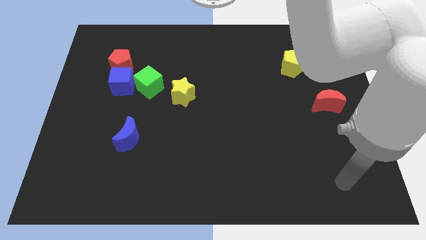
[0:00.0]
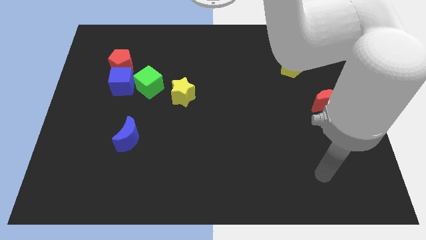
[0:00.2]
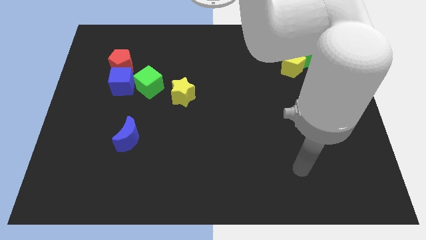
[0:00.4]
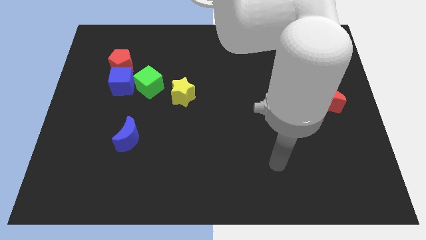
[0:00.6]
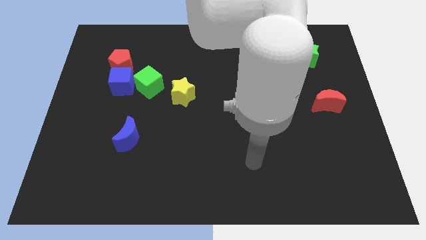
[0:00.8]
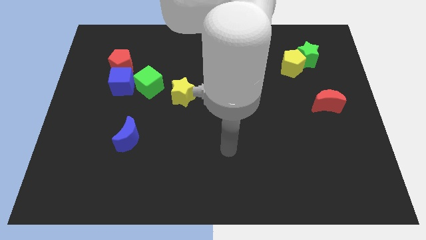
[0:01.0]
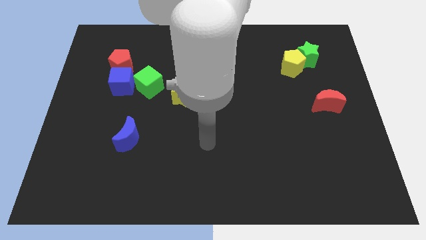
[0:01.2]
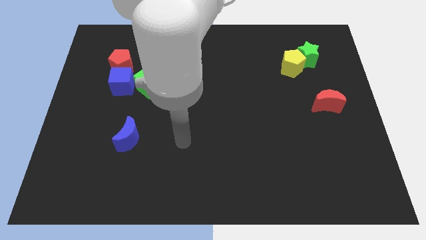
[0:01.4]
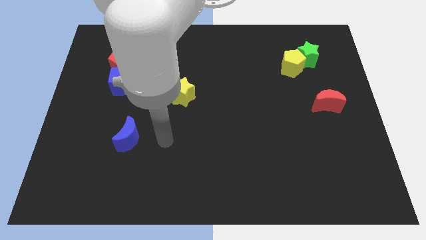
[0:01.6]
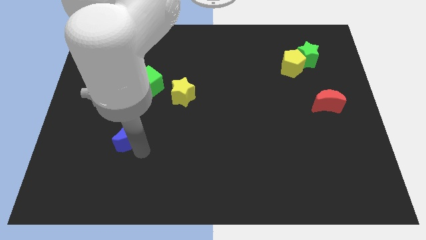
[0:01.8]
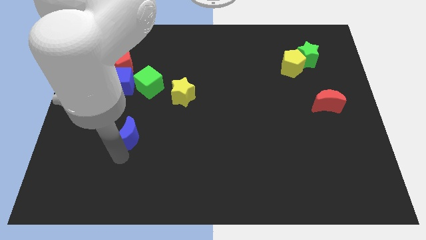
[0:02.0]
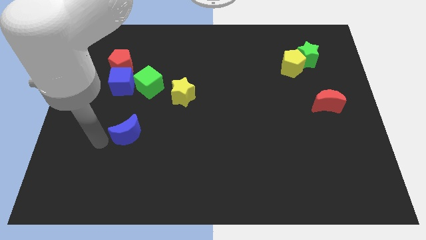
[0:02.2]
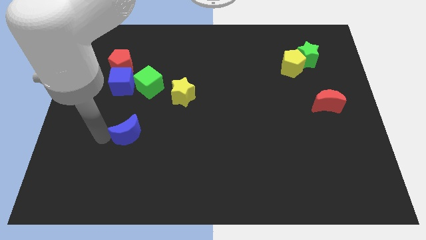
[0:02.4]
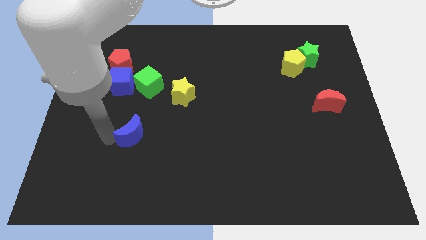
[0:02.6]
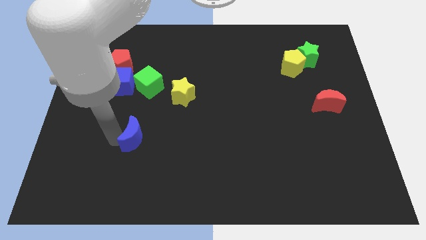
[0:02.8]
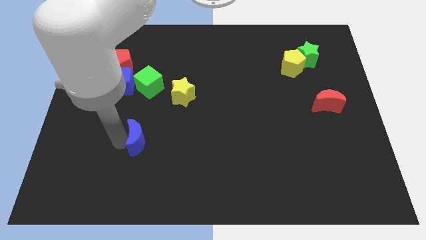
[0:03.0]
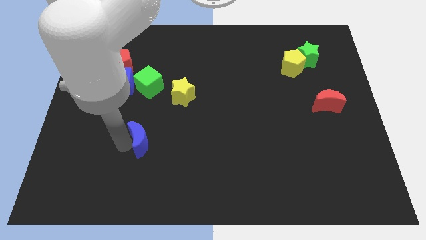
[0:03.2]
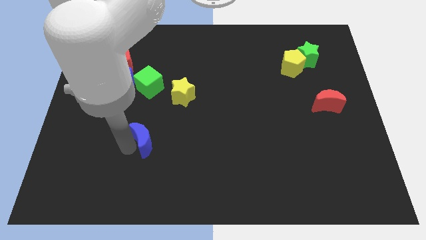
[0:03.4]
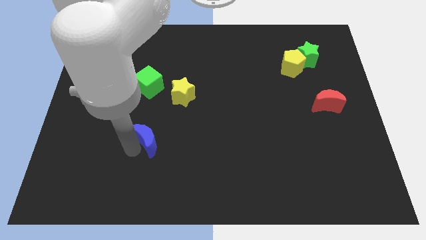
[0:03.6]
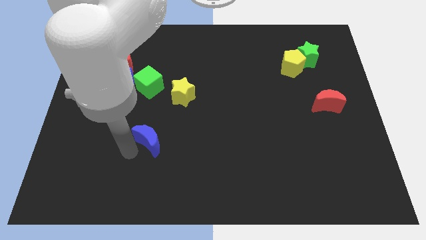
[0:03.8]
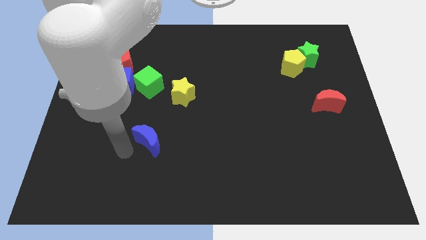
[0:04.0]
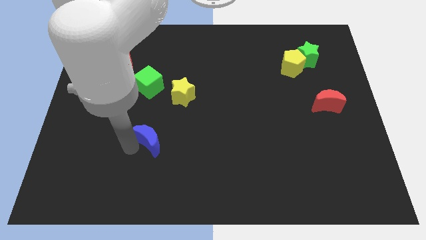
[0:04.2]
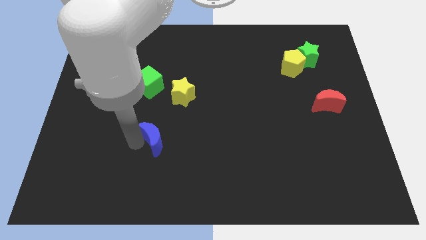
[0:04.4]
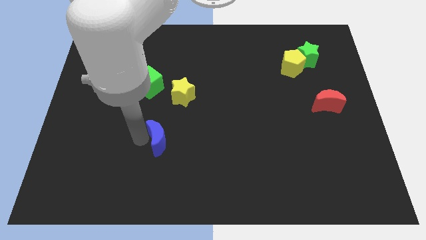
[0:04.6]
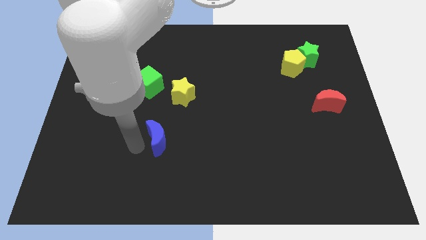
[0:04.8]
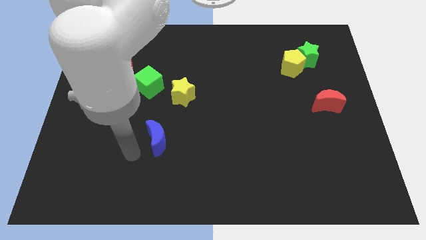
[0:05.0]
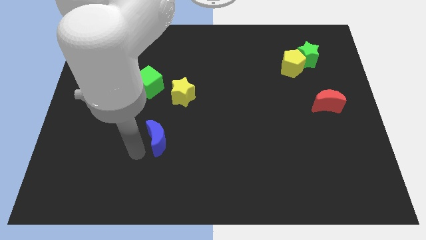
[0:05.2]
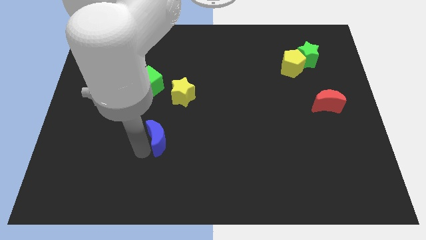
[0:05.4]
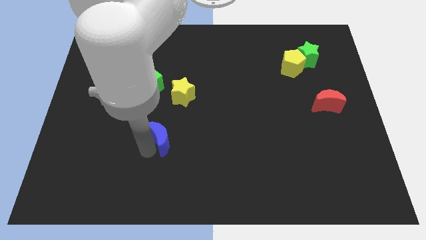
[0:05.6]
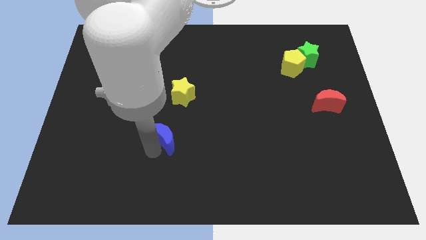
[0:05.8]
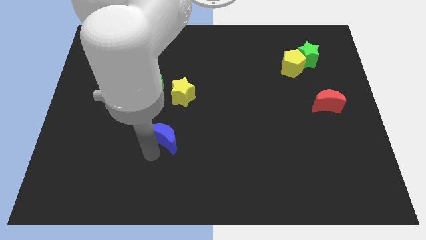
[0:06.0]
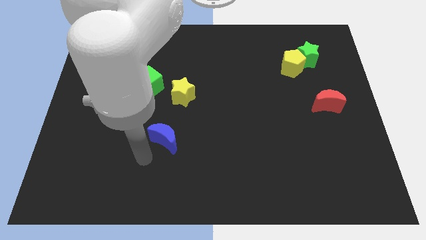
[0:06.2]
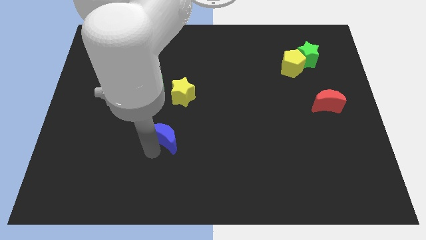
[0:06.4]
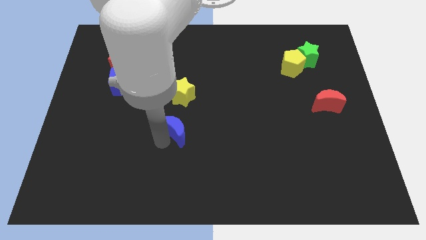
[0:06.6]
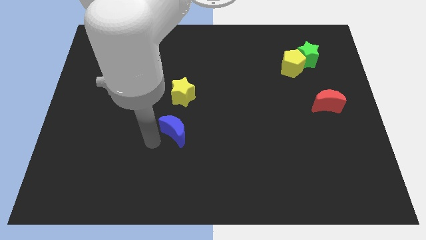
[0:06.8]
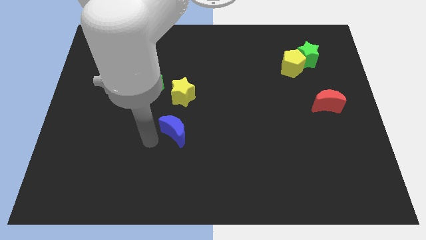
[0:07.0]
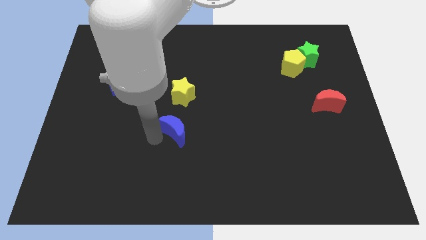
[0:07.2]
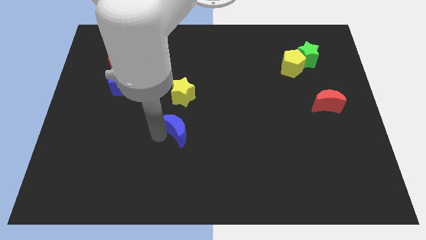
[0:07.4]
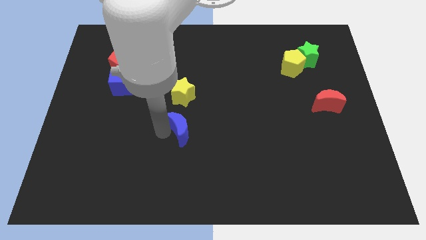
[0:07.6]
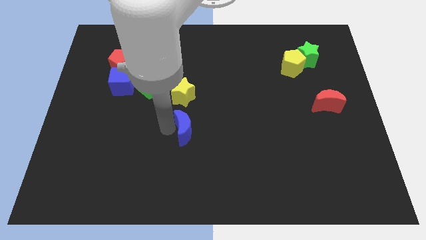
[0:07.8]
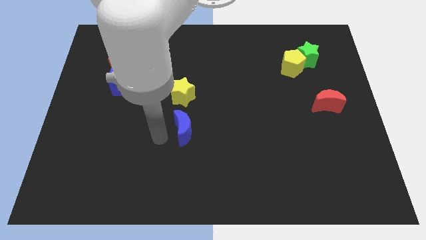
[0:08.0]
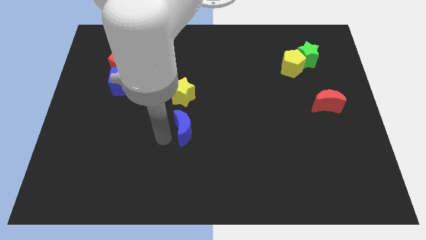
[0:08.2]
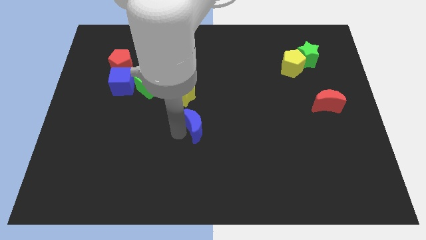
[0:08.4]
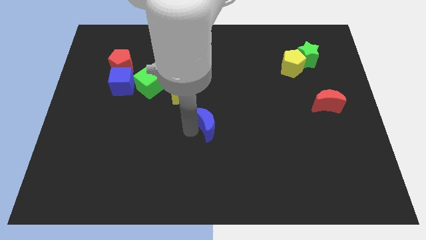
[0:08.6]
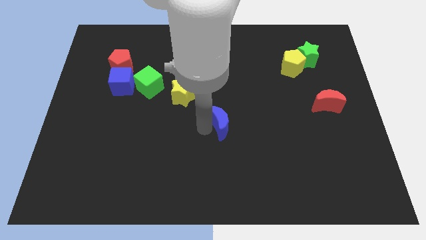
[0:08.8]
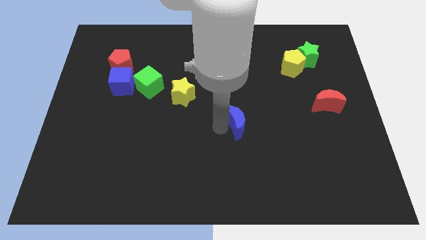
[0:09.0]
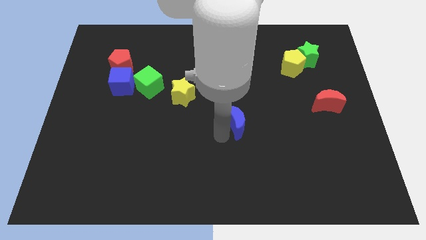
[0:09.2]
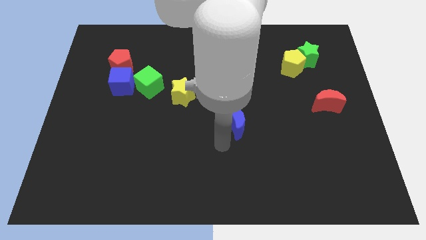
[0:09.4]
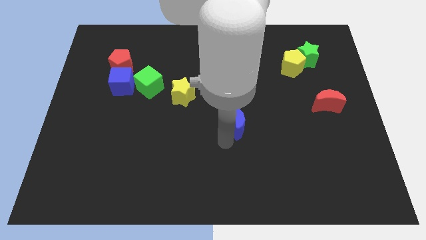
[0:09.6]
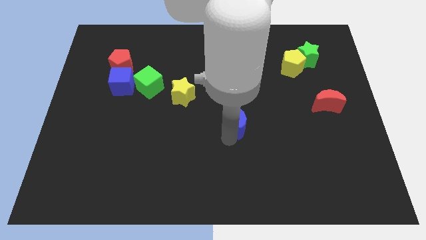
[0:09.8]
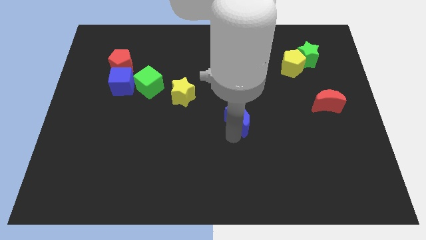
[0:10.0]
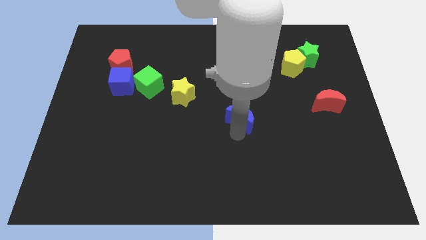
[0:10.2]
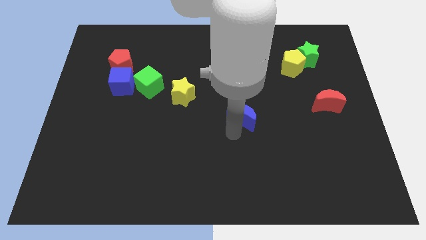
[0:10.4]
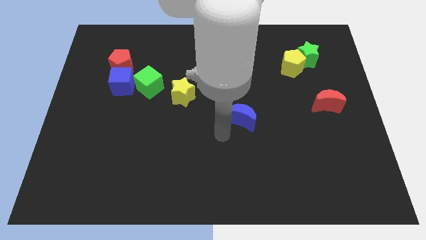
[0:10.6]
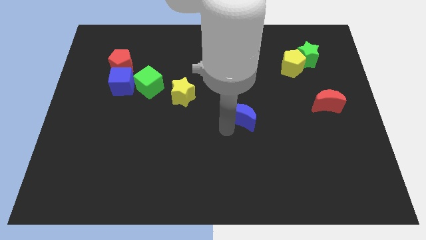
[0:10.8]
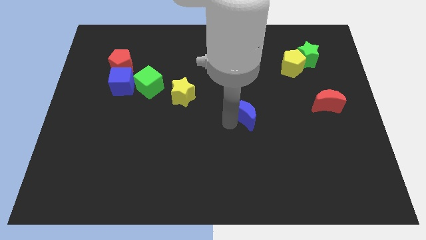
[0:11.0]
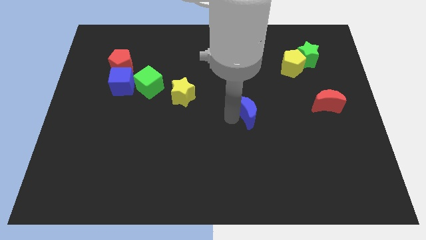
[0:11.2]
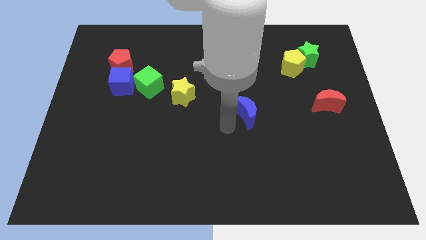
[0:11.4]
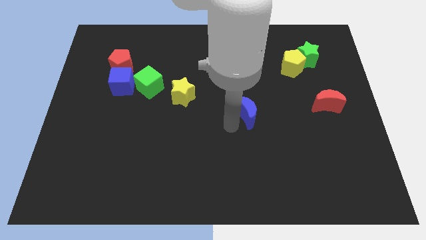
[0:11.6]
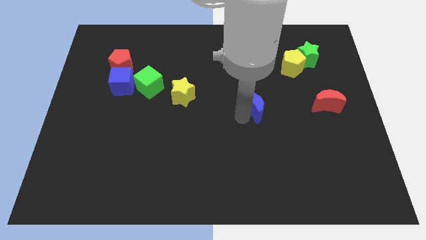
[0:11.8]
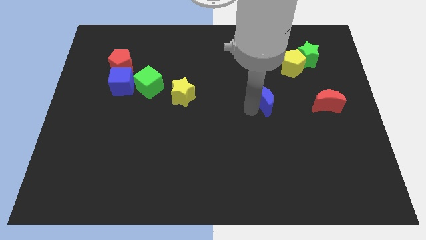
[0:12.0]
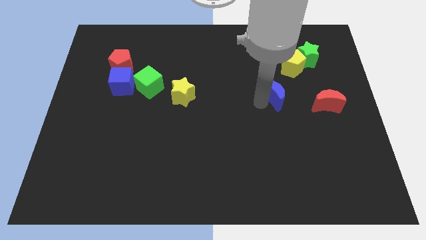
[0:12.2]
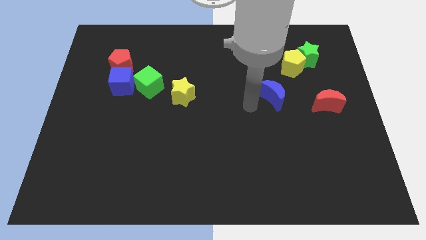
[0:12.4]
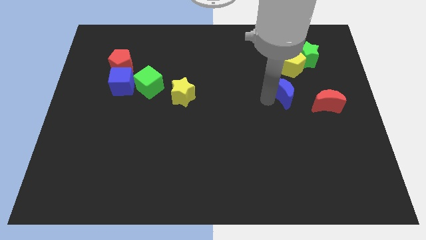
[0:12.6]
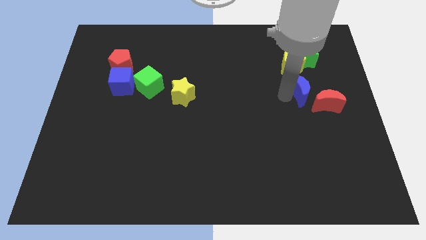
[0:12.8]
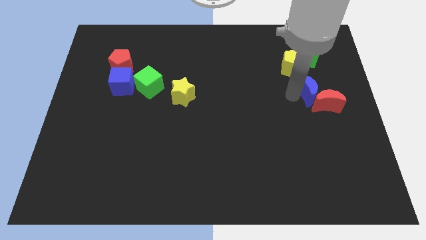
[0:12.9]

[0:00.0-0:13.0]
move the blue moon to the bottom right of the yellow pentagon
